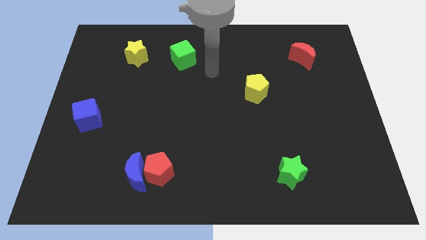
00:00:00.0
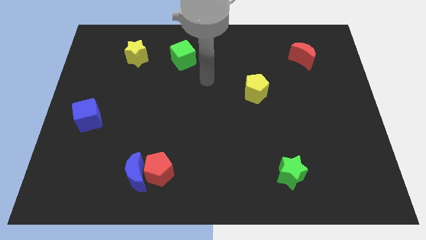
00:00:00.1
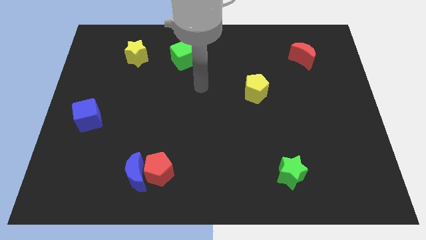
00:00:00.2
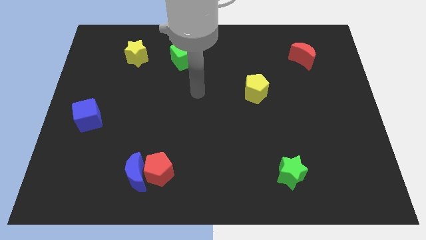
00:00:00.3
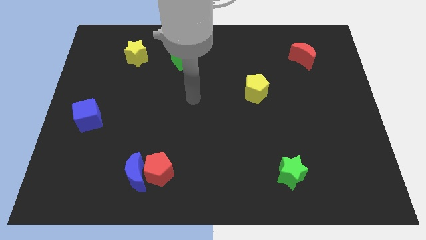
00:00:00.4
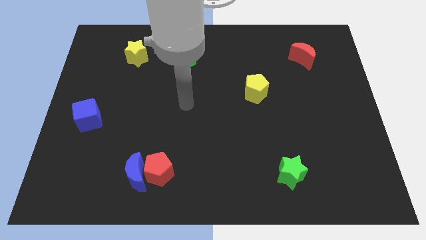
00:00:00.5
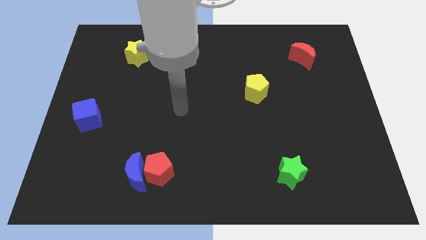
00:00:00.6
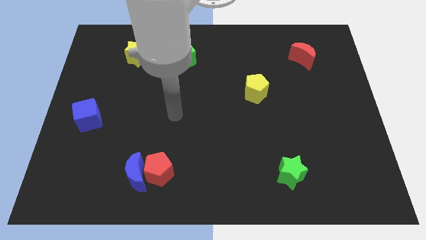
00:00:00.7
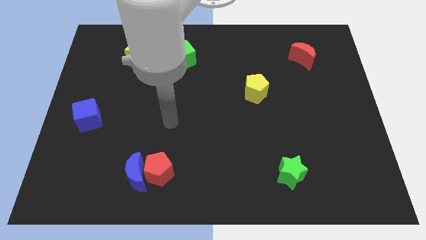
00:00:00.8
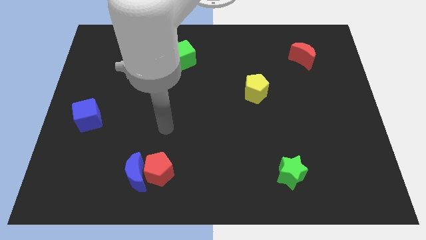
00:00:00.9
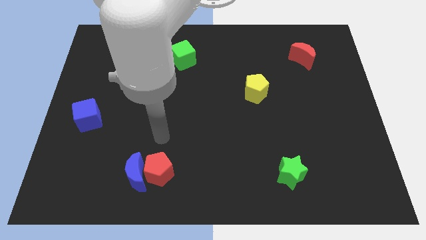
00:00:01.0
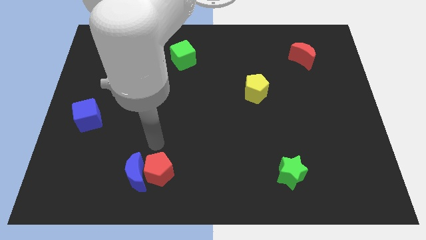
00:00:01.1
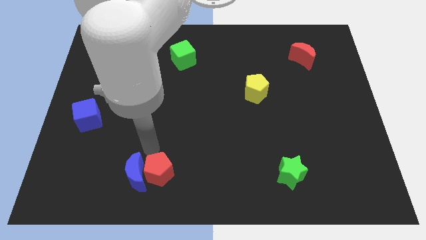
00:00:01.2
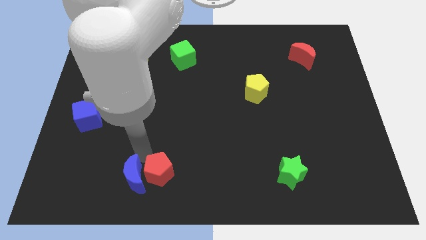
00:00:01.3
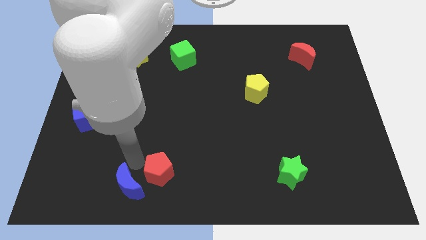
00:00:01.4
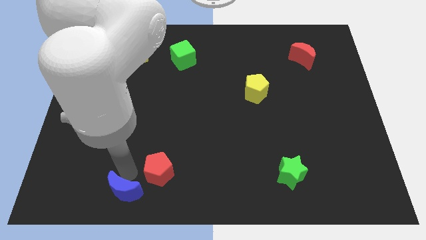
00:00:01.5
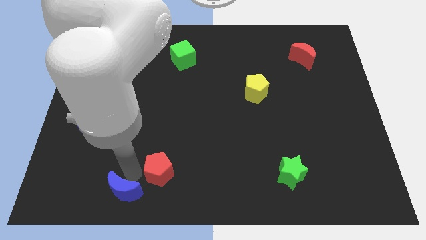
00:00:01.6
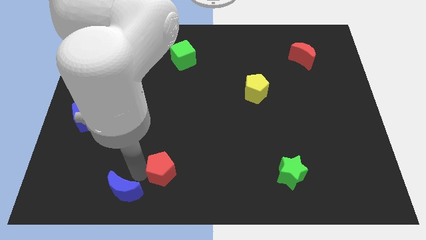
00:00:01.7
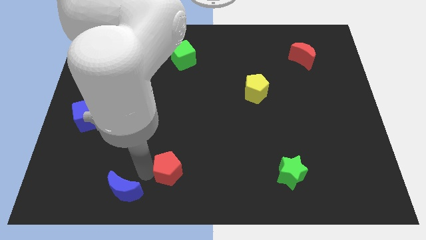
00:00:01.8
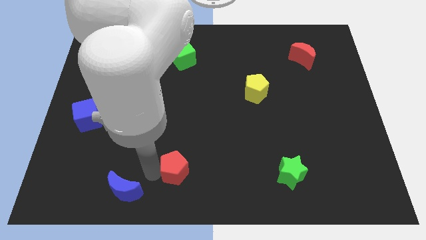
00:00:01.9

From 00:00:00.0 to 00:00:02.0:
separate the red pentagon from the blue moon

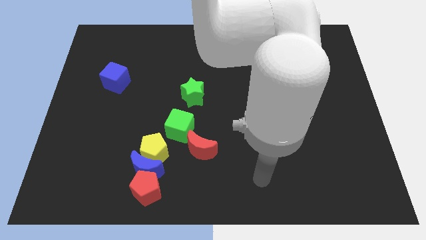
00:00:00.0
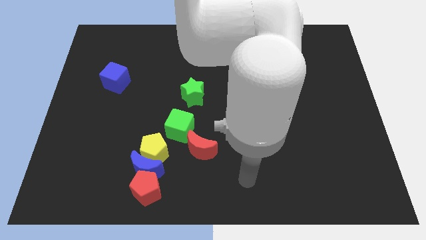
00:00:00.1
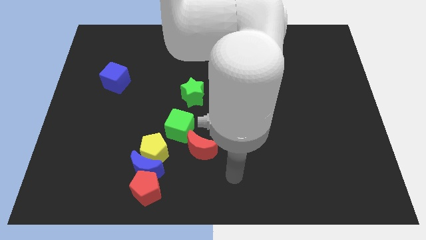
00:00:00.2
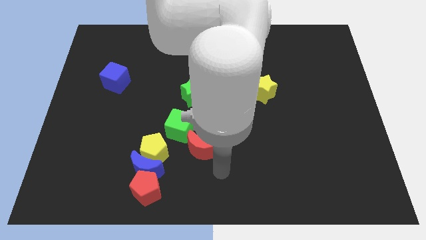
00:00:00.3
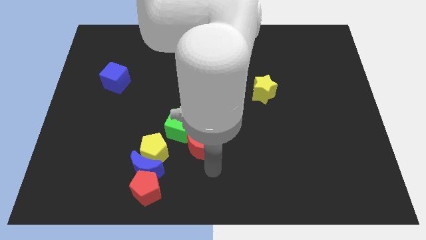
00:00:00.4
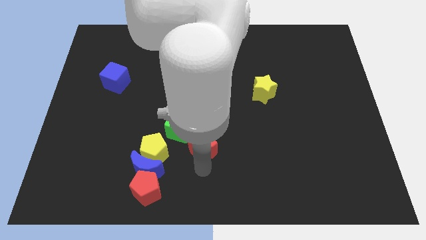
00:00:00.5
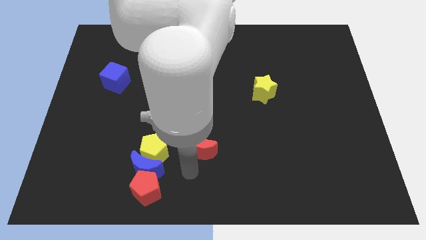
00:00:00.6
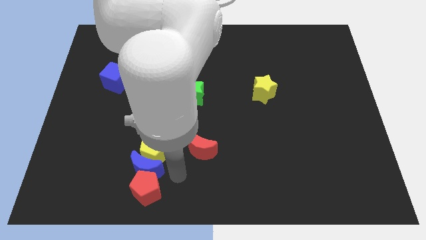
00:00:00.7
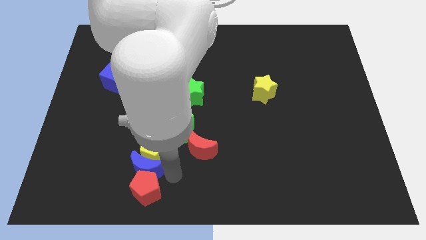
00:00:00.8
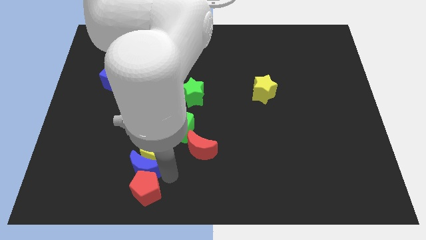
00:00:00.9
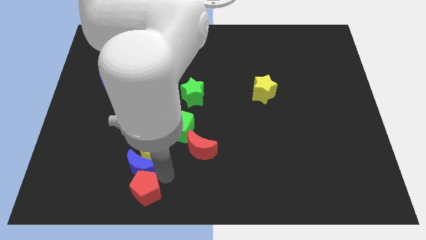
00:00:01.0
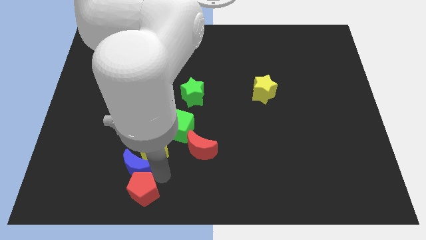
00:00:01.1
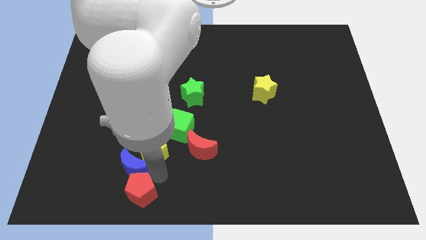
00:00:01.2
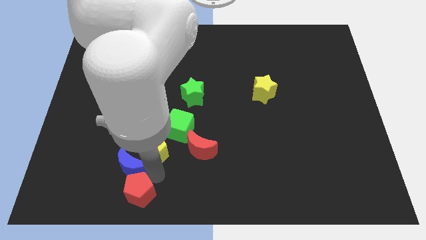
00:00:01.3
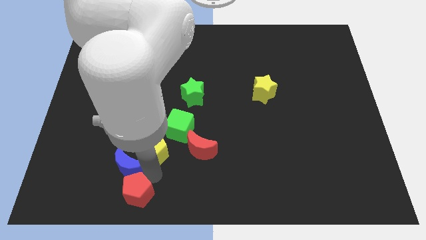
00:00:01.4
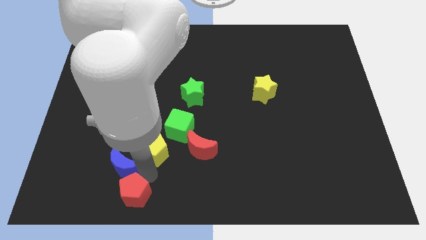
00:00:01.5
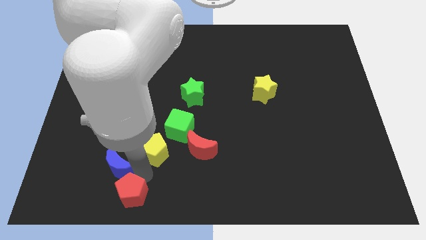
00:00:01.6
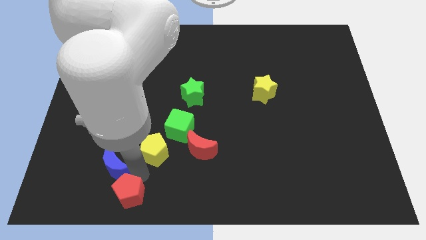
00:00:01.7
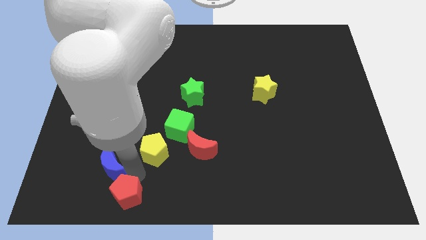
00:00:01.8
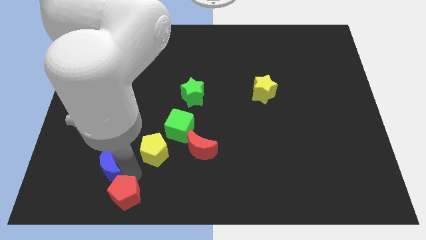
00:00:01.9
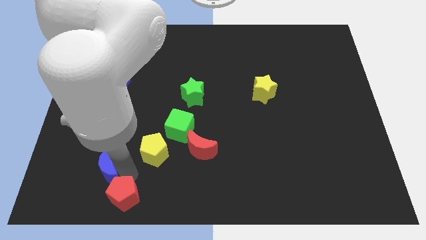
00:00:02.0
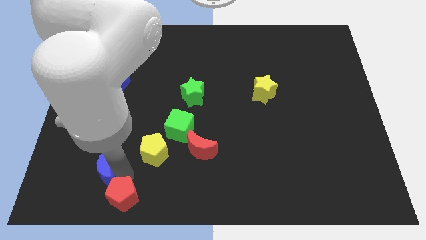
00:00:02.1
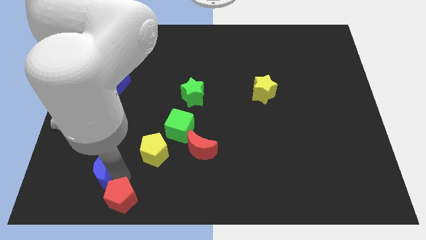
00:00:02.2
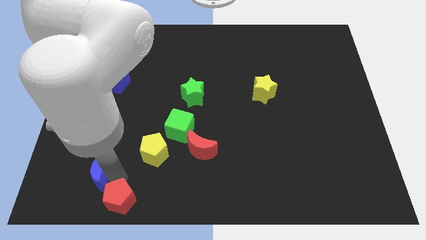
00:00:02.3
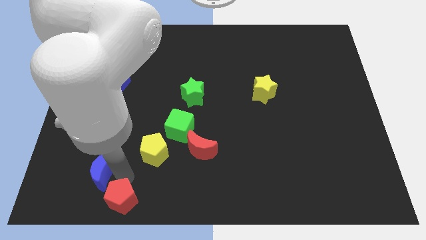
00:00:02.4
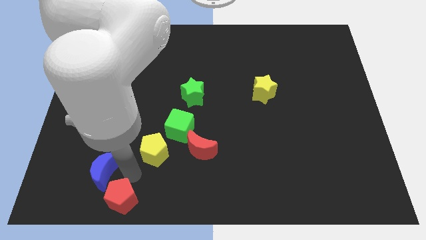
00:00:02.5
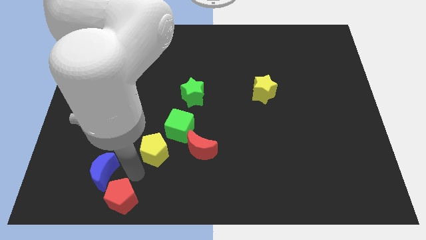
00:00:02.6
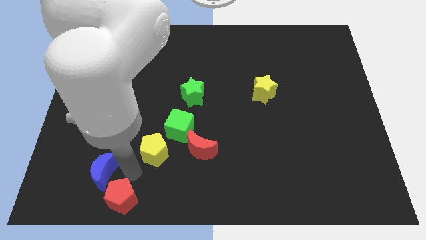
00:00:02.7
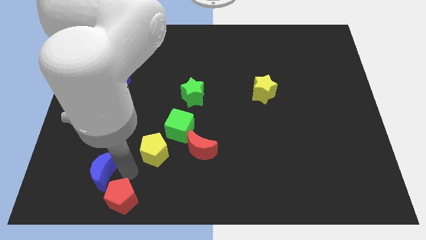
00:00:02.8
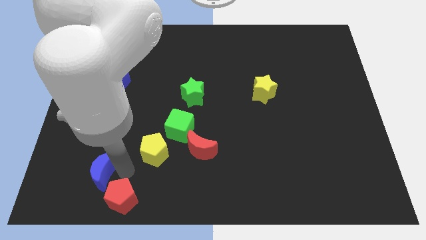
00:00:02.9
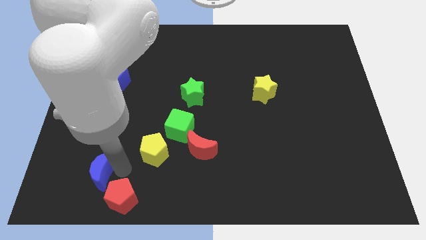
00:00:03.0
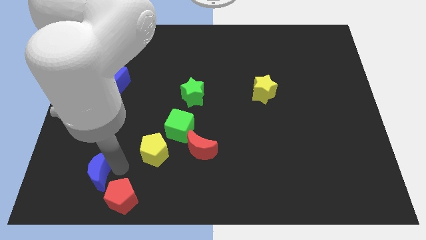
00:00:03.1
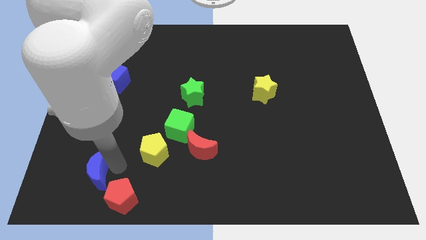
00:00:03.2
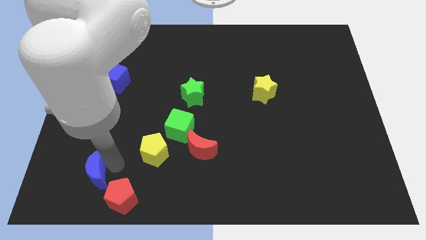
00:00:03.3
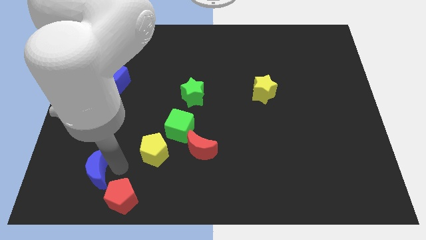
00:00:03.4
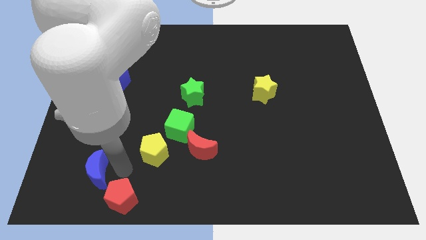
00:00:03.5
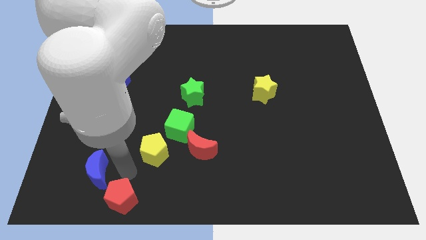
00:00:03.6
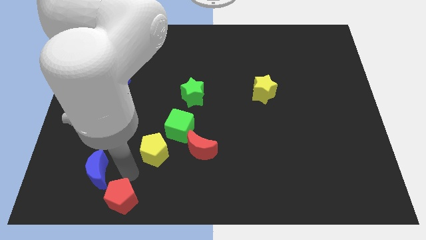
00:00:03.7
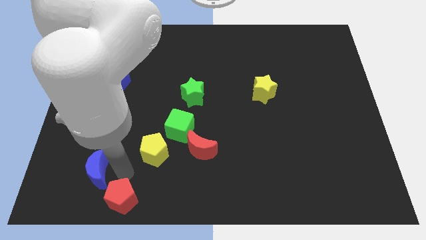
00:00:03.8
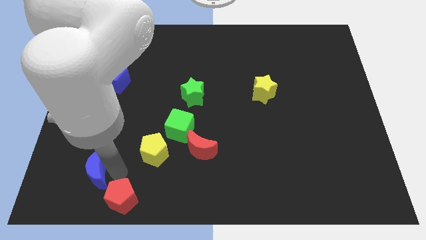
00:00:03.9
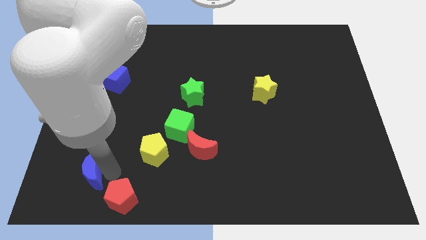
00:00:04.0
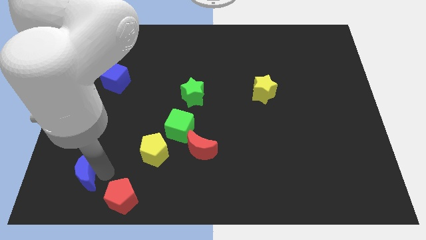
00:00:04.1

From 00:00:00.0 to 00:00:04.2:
separate the blue moon from the yellow pentagon and red pentagon

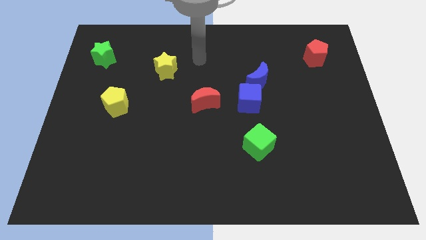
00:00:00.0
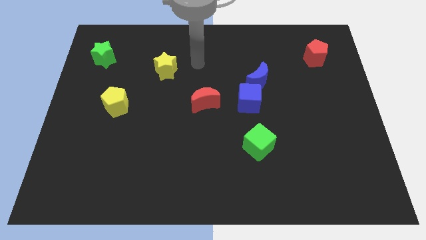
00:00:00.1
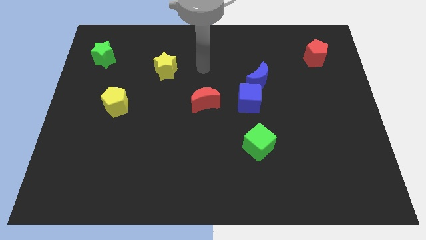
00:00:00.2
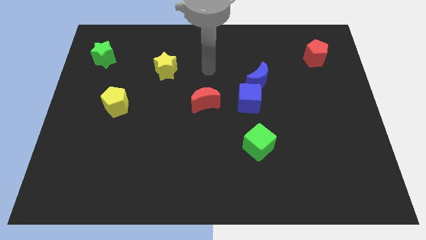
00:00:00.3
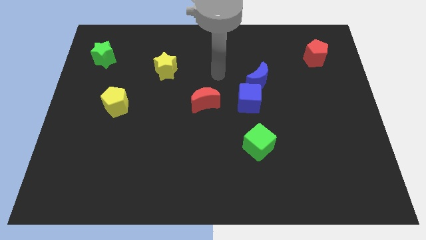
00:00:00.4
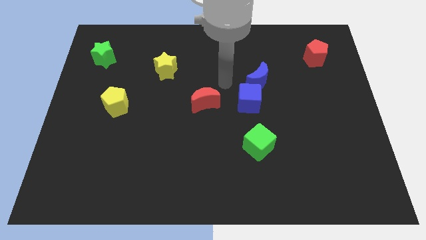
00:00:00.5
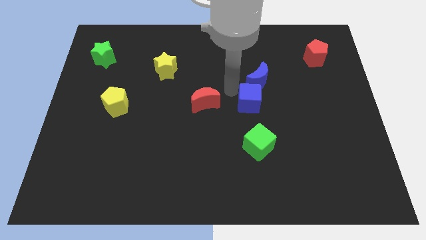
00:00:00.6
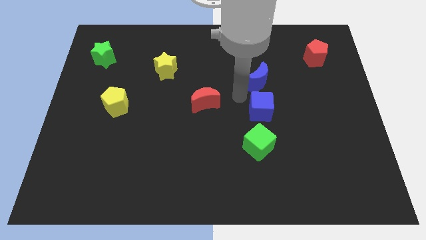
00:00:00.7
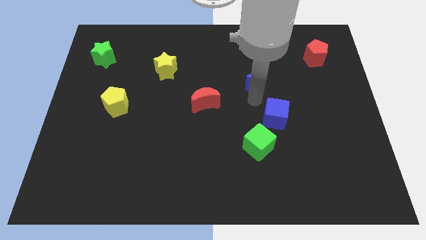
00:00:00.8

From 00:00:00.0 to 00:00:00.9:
separate the blue moon from the blue cube

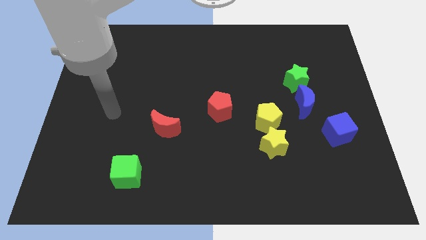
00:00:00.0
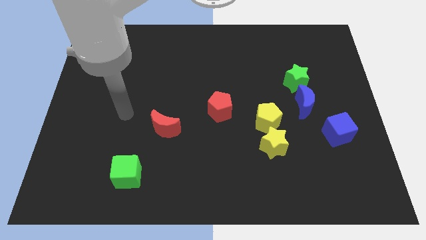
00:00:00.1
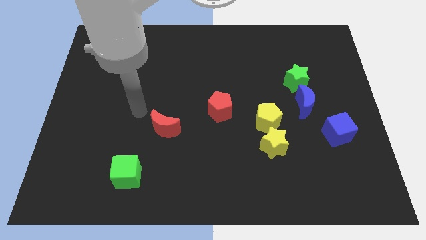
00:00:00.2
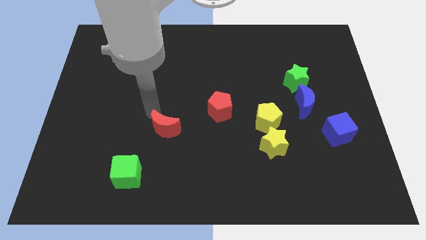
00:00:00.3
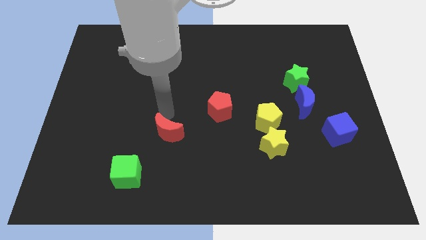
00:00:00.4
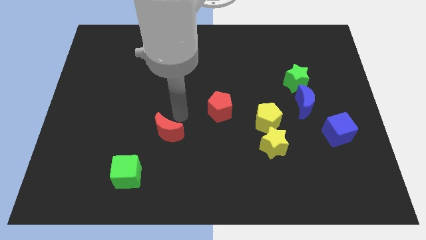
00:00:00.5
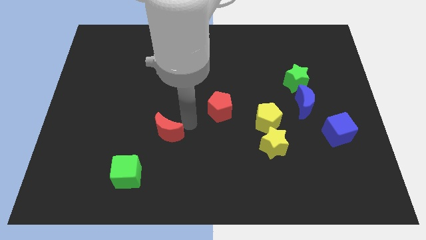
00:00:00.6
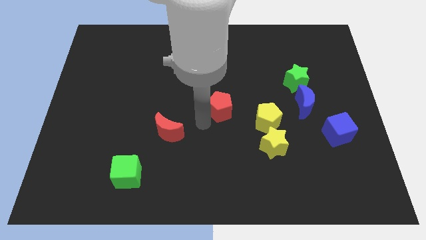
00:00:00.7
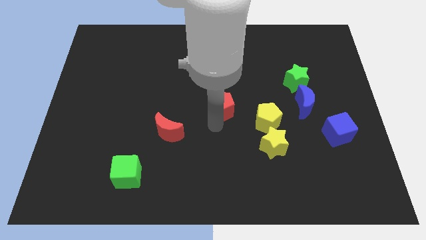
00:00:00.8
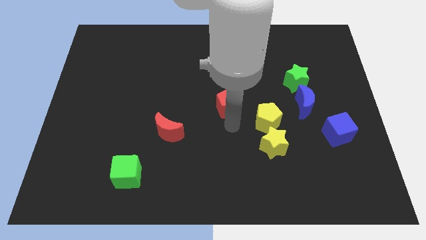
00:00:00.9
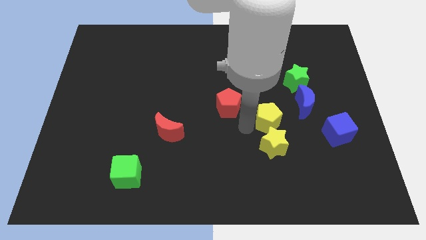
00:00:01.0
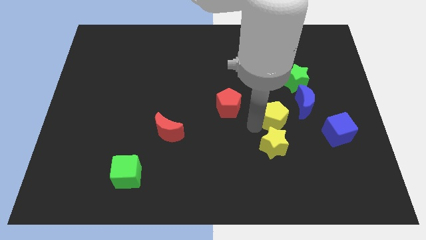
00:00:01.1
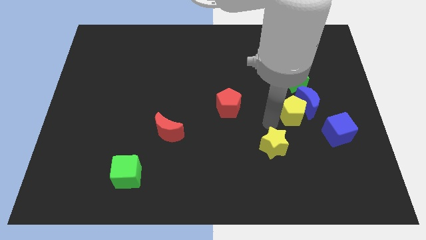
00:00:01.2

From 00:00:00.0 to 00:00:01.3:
separate the yellow star from the yellow pentagon

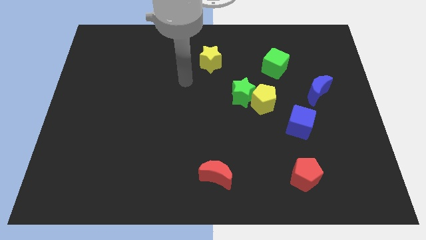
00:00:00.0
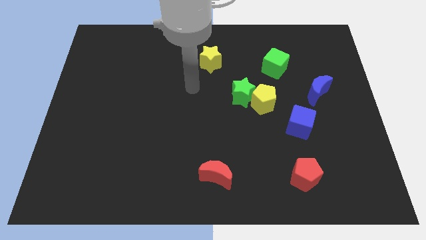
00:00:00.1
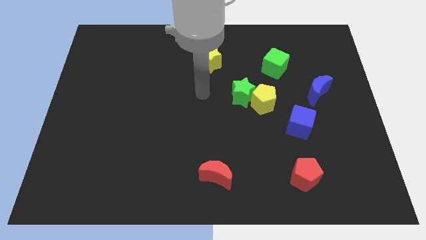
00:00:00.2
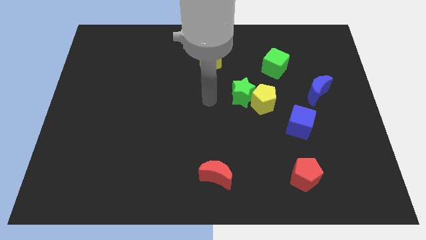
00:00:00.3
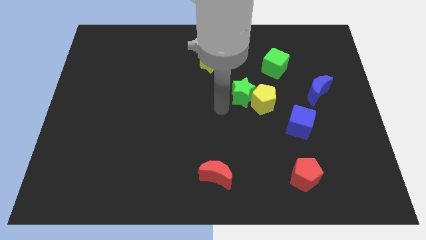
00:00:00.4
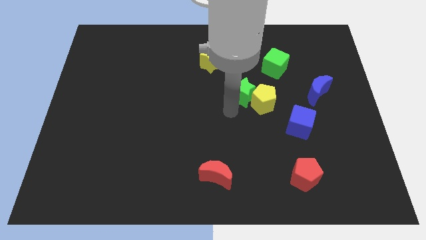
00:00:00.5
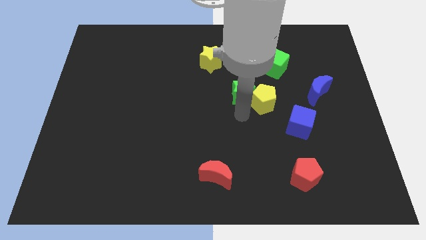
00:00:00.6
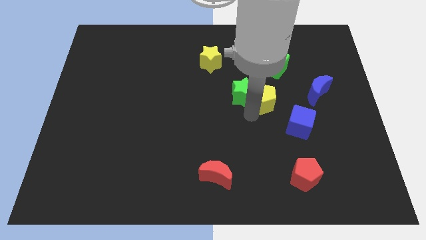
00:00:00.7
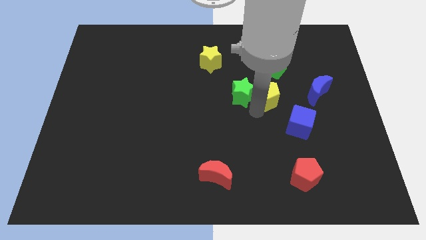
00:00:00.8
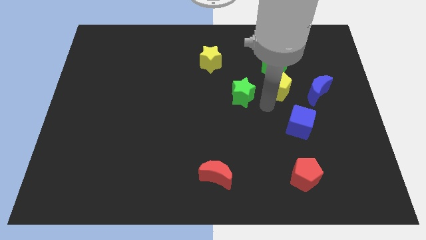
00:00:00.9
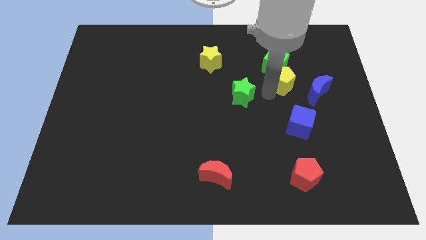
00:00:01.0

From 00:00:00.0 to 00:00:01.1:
pull the green star apart from the yellow pentagon
